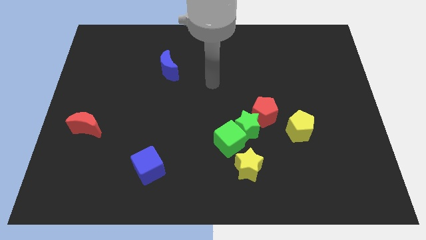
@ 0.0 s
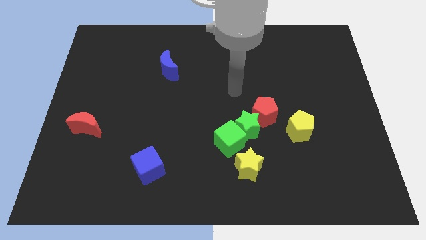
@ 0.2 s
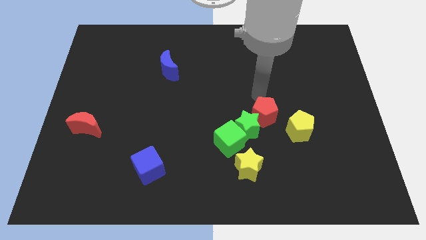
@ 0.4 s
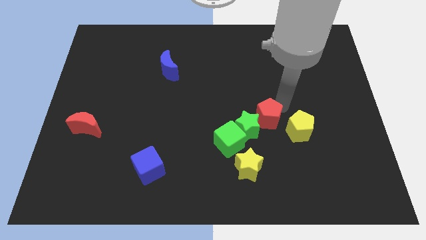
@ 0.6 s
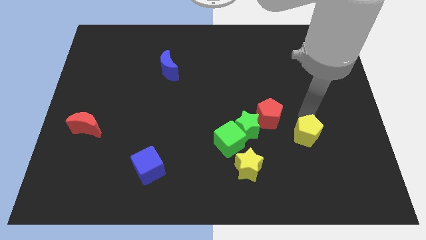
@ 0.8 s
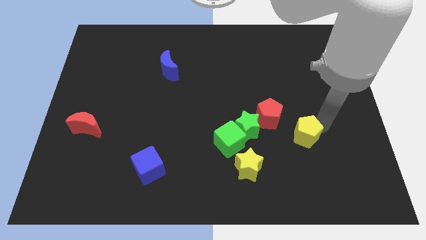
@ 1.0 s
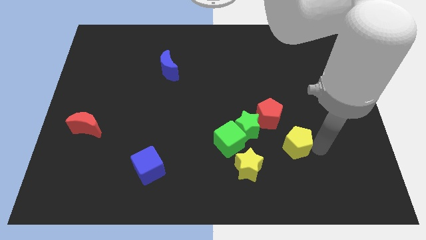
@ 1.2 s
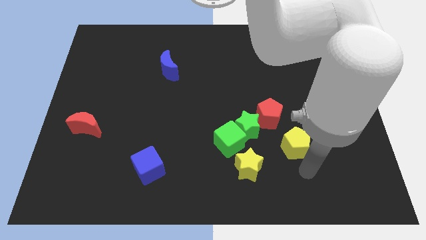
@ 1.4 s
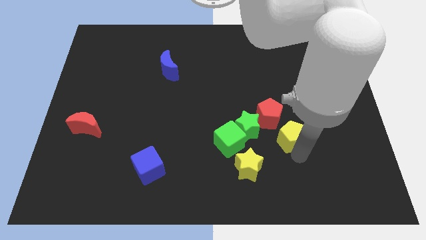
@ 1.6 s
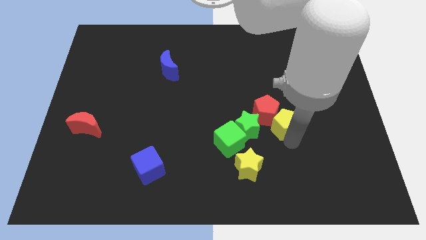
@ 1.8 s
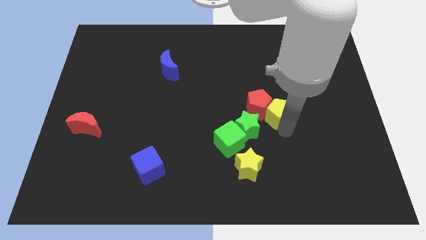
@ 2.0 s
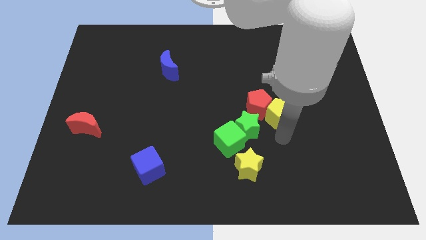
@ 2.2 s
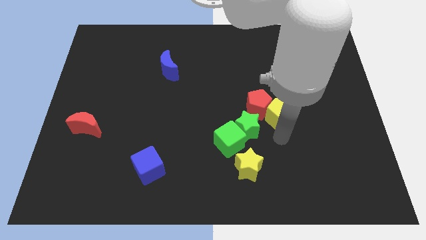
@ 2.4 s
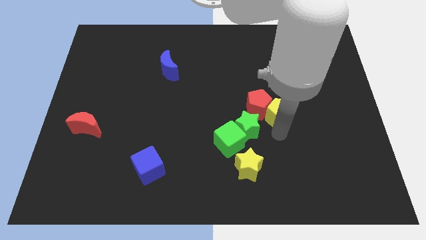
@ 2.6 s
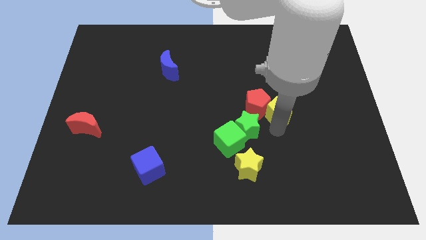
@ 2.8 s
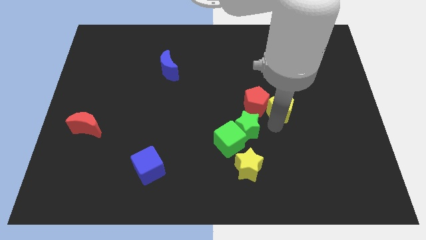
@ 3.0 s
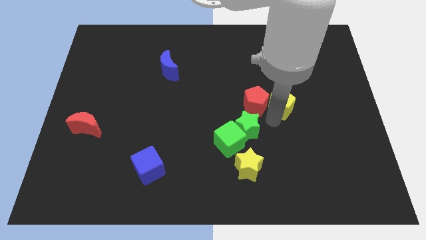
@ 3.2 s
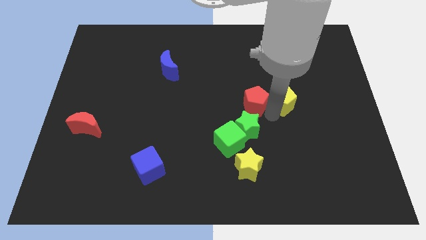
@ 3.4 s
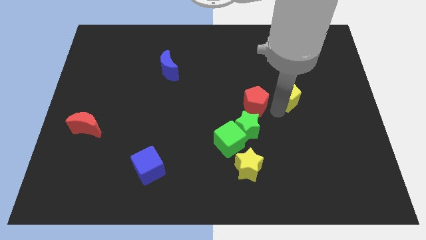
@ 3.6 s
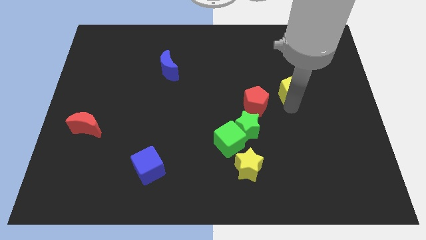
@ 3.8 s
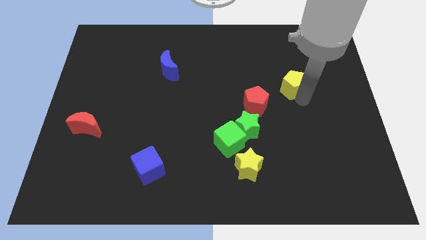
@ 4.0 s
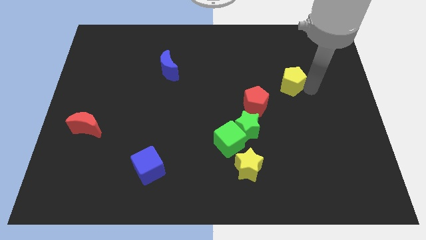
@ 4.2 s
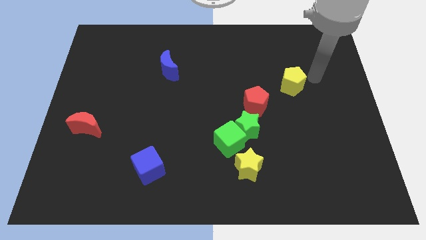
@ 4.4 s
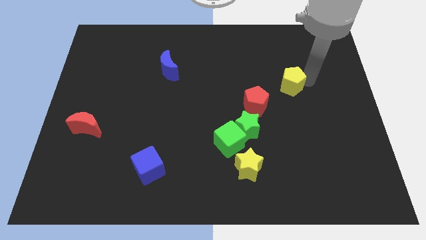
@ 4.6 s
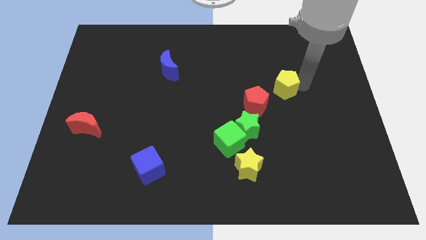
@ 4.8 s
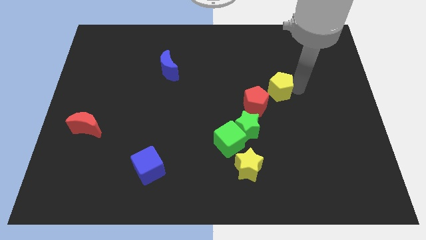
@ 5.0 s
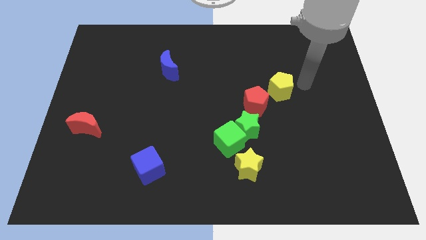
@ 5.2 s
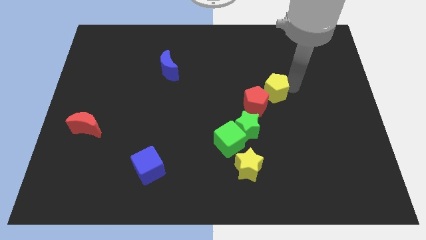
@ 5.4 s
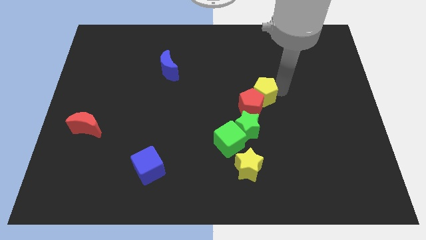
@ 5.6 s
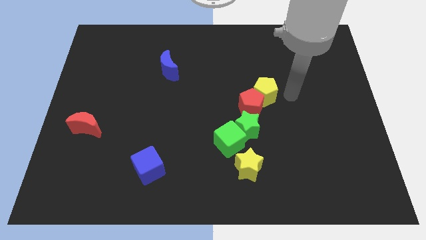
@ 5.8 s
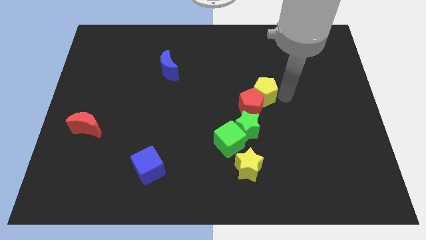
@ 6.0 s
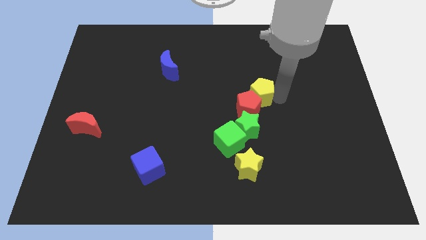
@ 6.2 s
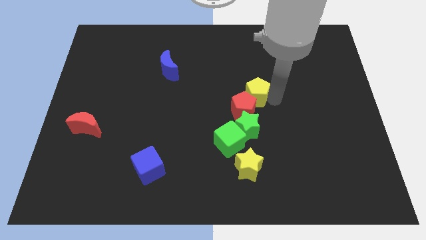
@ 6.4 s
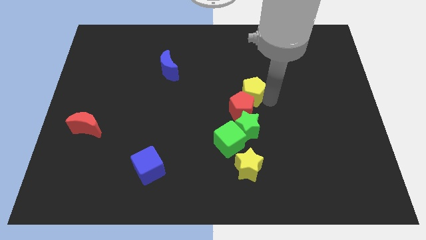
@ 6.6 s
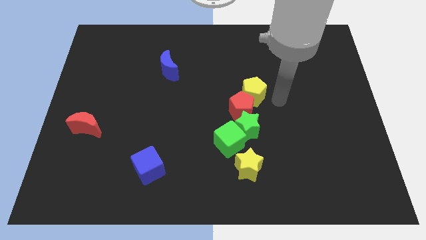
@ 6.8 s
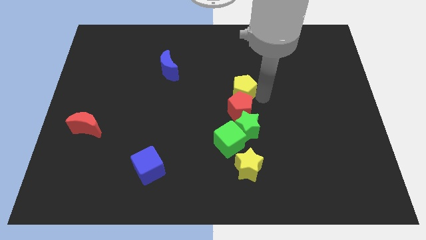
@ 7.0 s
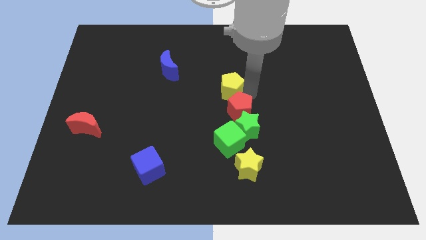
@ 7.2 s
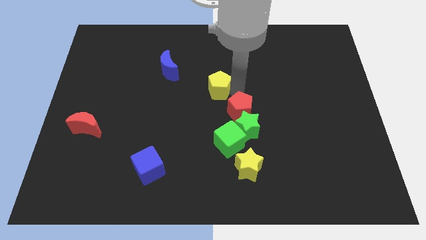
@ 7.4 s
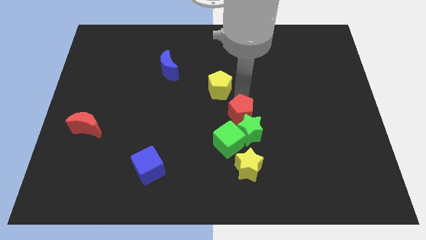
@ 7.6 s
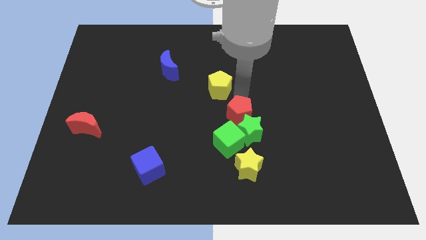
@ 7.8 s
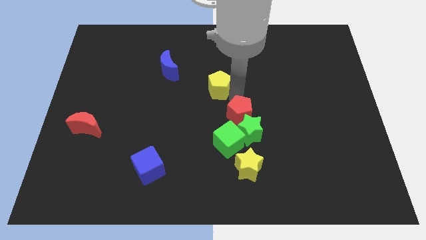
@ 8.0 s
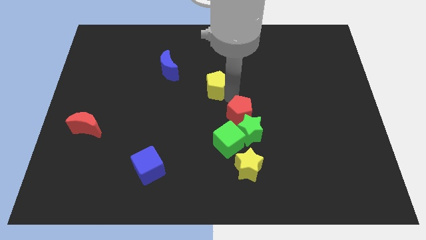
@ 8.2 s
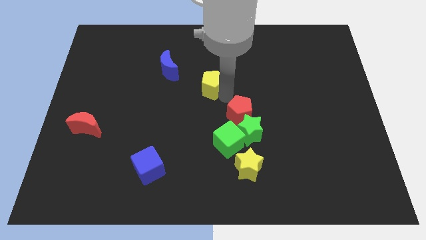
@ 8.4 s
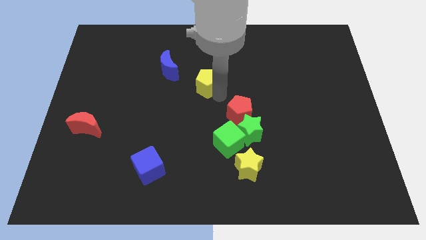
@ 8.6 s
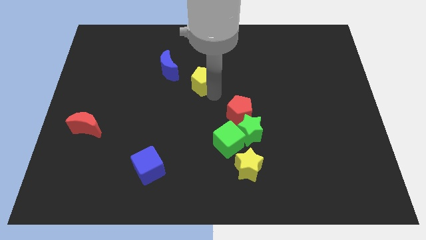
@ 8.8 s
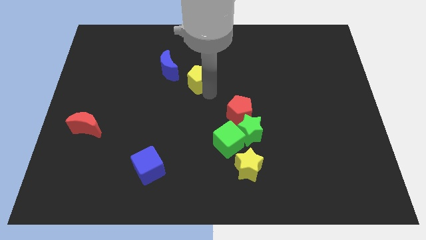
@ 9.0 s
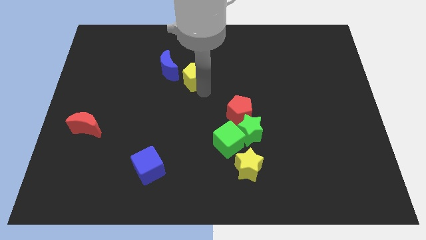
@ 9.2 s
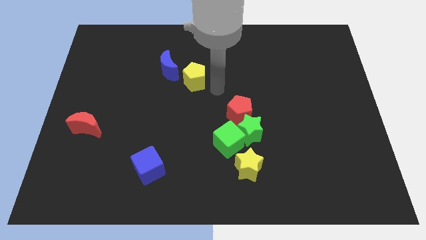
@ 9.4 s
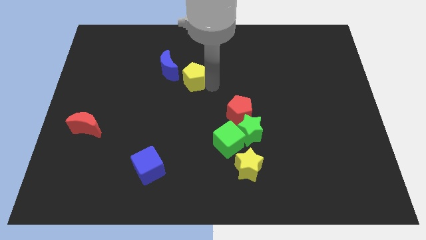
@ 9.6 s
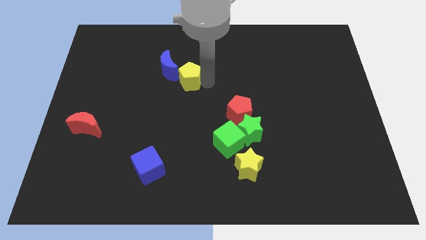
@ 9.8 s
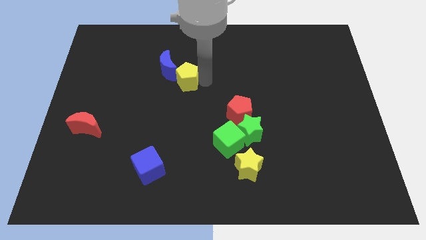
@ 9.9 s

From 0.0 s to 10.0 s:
put the yellow pentagon to the blue moon

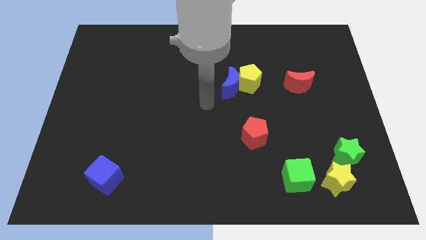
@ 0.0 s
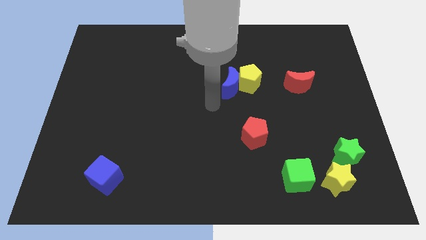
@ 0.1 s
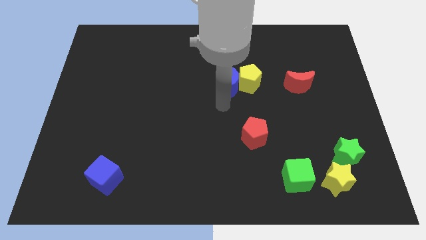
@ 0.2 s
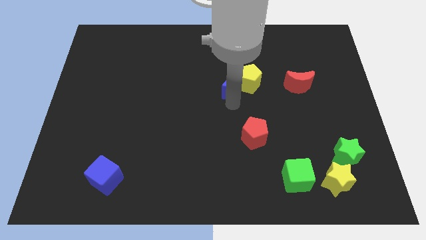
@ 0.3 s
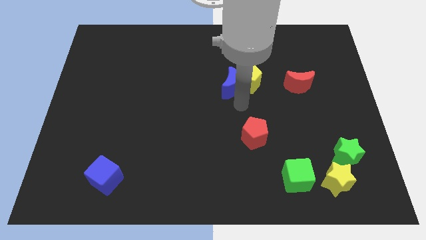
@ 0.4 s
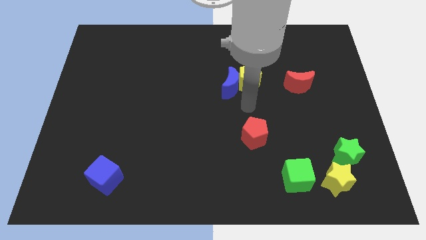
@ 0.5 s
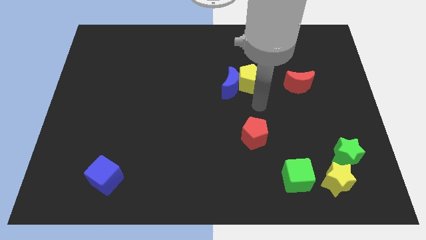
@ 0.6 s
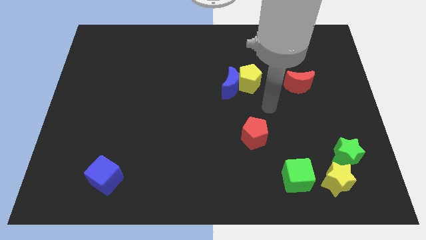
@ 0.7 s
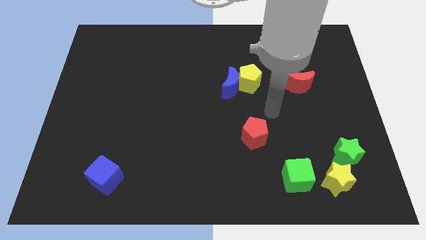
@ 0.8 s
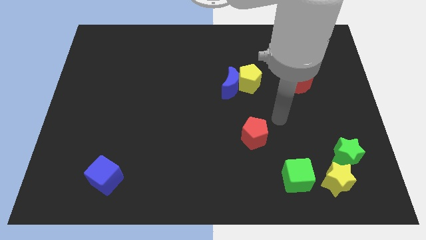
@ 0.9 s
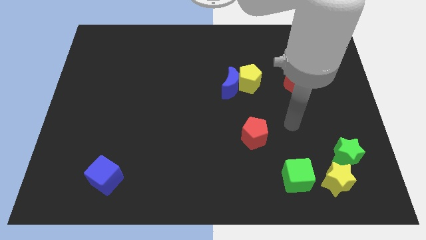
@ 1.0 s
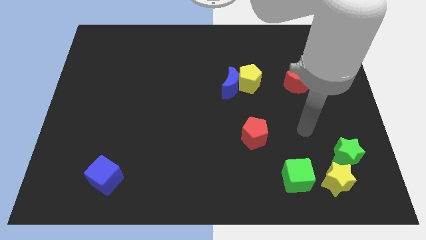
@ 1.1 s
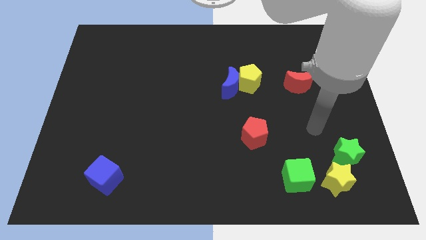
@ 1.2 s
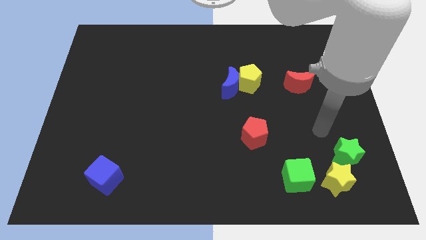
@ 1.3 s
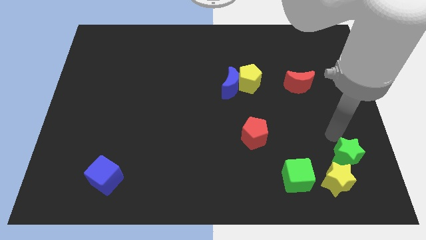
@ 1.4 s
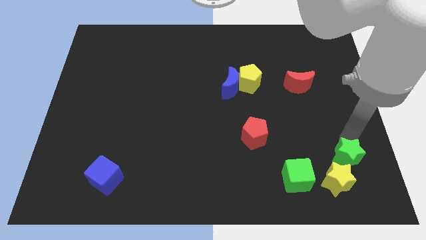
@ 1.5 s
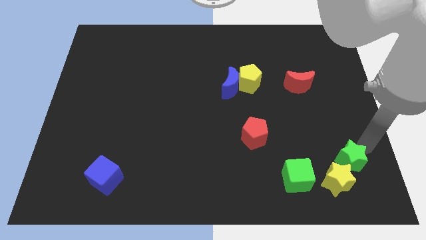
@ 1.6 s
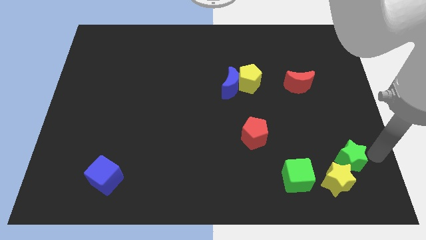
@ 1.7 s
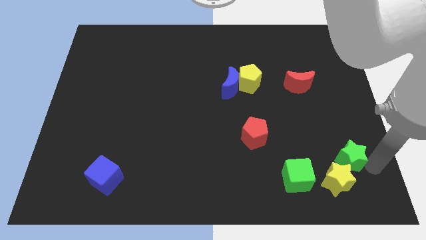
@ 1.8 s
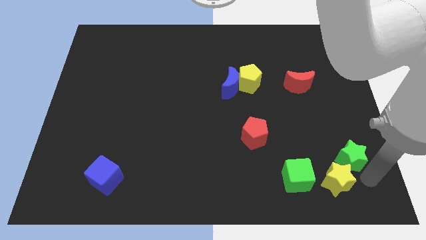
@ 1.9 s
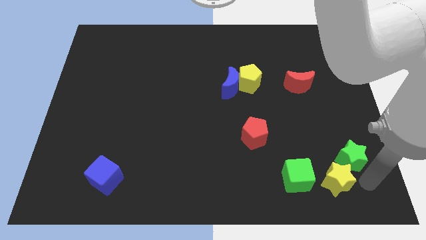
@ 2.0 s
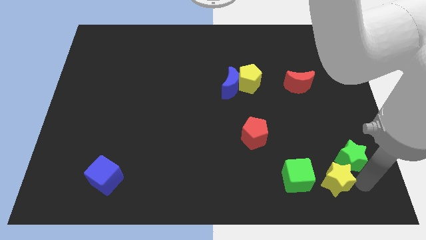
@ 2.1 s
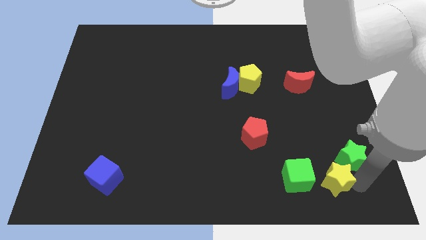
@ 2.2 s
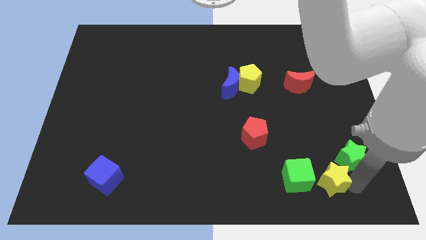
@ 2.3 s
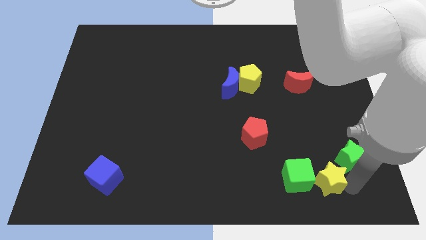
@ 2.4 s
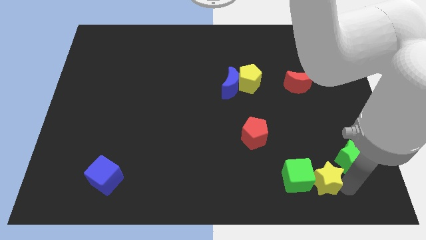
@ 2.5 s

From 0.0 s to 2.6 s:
move the yellow star close to the green cube
